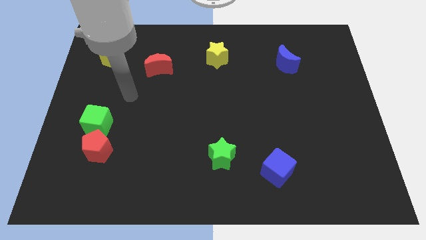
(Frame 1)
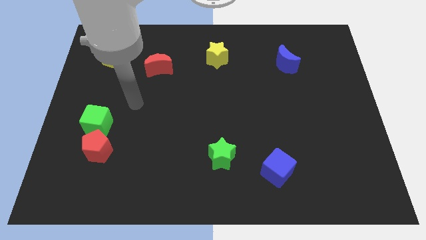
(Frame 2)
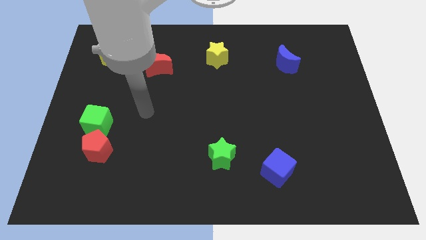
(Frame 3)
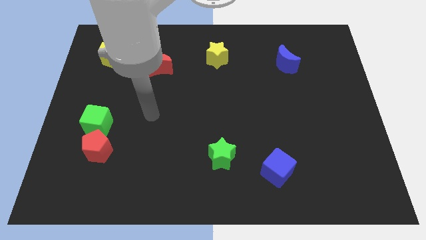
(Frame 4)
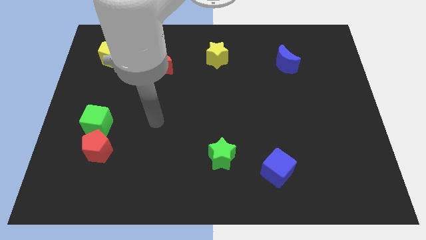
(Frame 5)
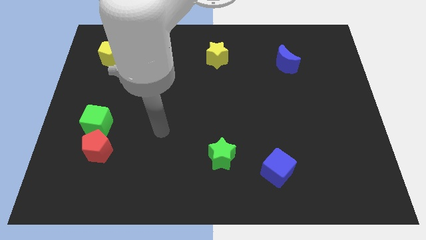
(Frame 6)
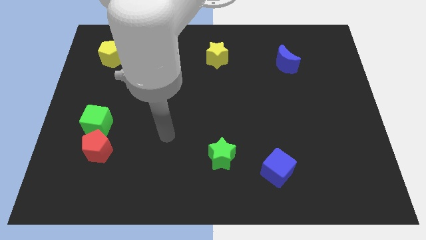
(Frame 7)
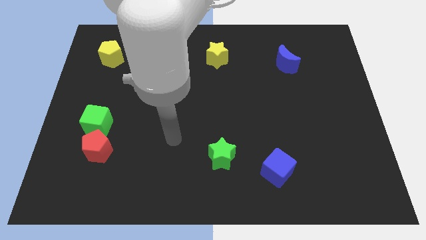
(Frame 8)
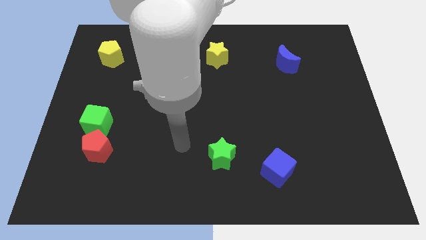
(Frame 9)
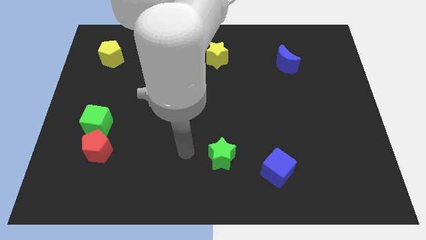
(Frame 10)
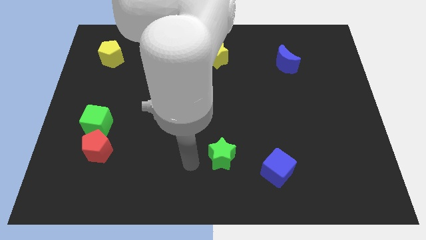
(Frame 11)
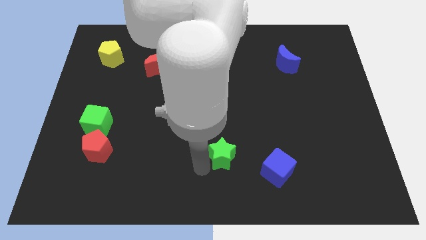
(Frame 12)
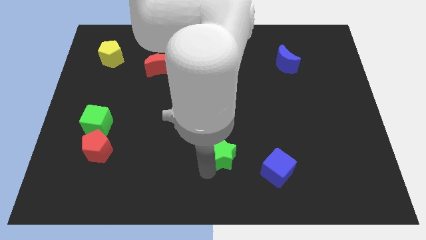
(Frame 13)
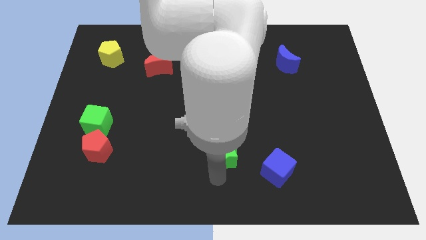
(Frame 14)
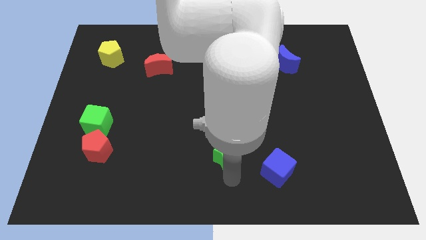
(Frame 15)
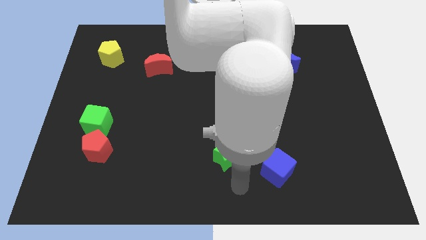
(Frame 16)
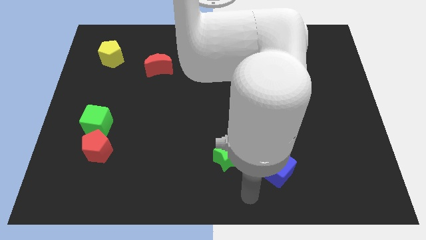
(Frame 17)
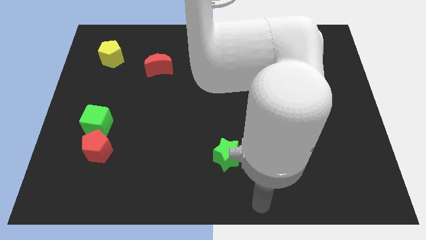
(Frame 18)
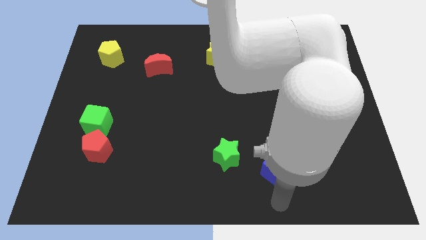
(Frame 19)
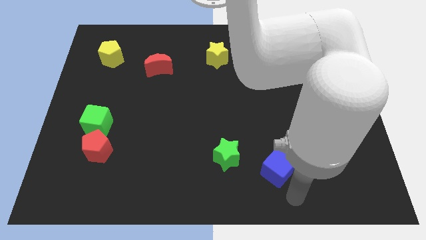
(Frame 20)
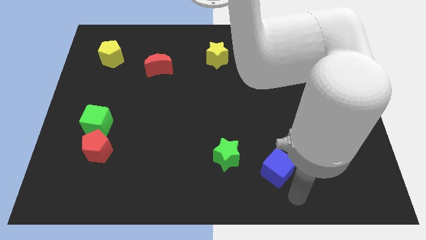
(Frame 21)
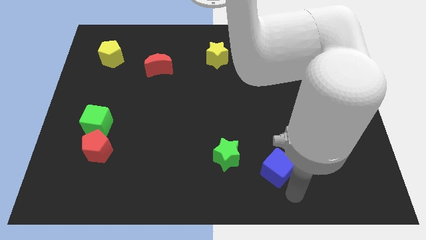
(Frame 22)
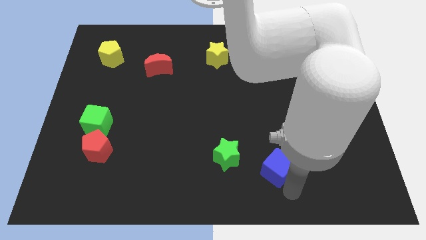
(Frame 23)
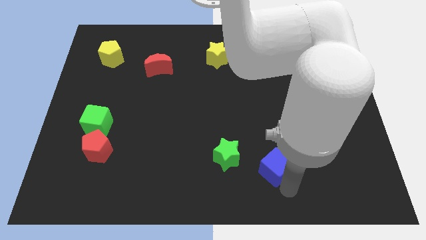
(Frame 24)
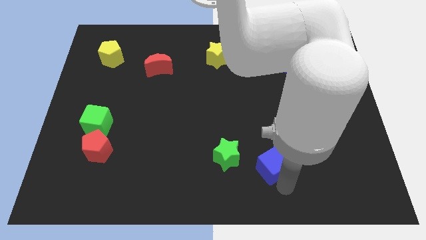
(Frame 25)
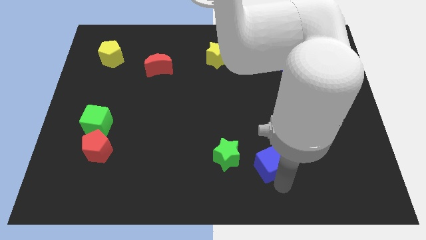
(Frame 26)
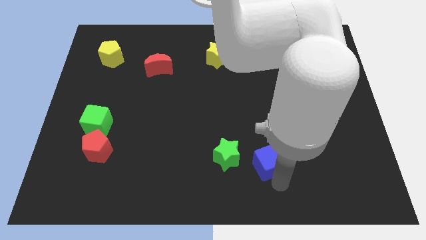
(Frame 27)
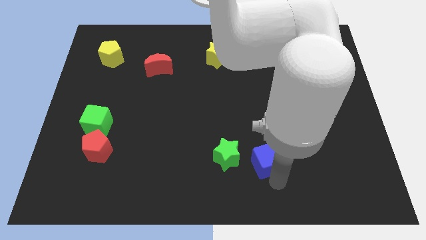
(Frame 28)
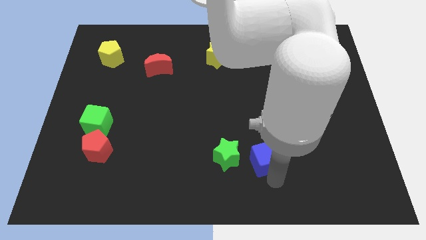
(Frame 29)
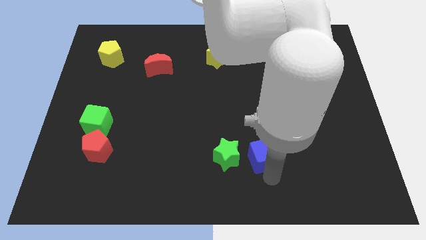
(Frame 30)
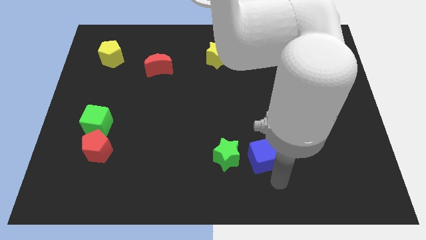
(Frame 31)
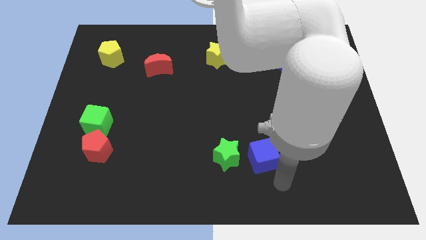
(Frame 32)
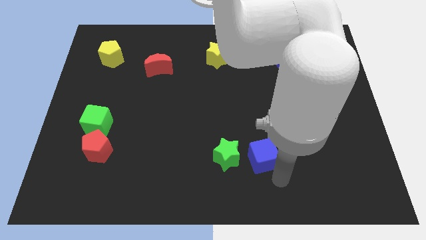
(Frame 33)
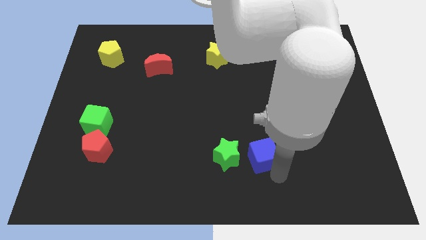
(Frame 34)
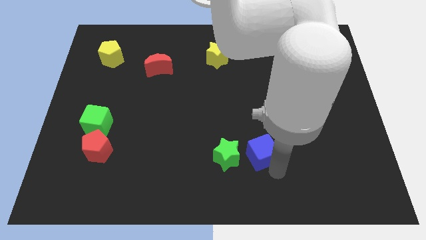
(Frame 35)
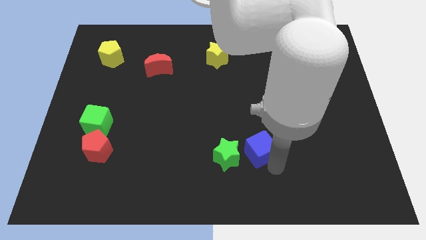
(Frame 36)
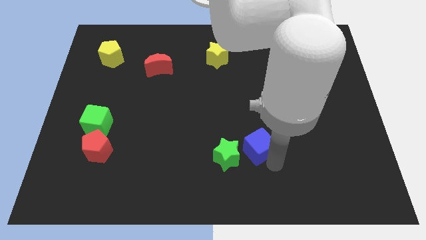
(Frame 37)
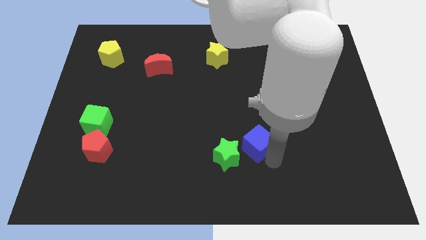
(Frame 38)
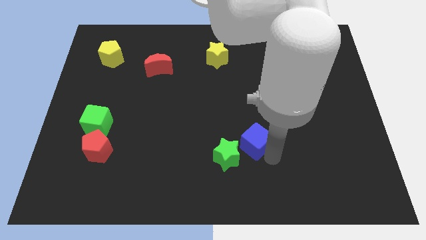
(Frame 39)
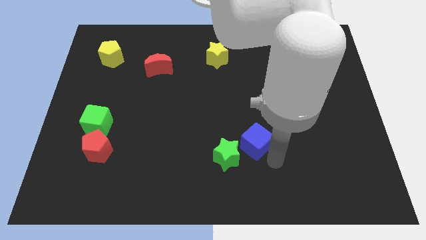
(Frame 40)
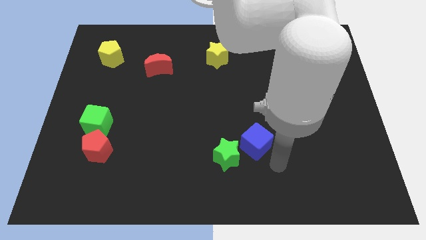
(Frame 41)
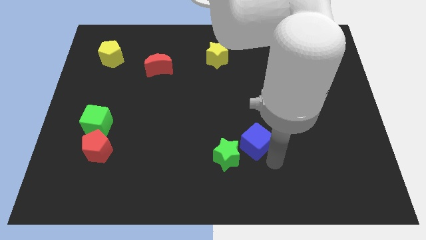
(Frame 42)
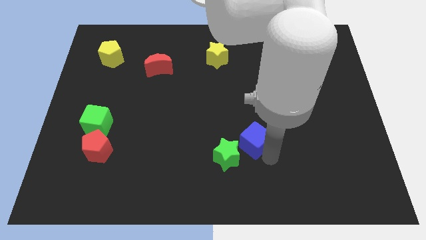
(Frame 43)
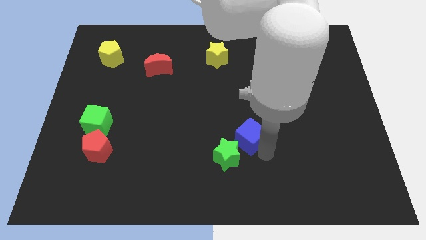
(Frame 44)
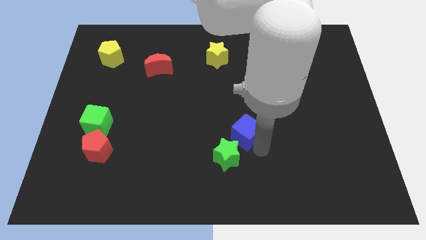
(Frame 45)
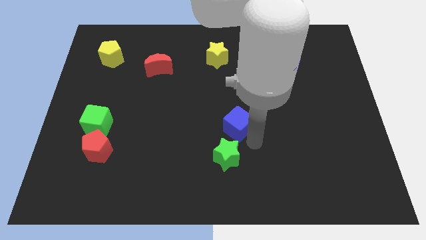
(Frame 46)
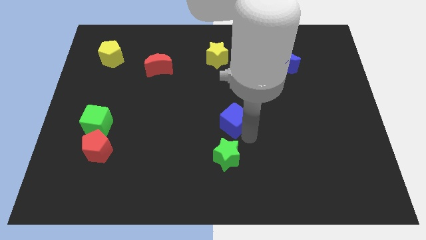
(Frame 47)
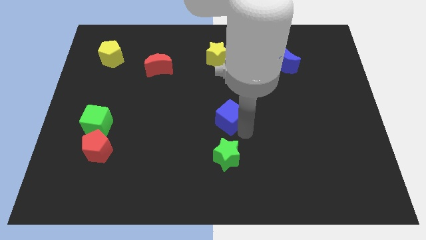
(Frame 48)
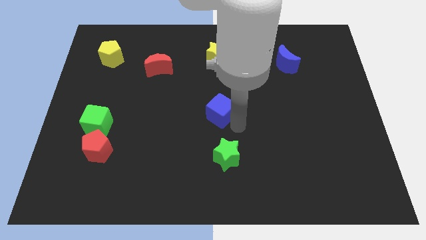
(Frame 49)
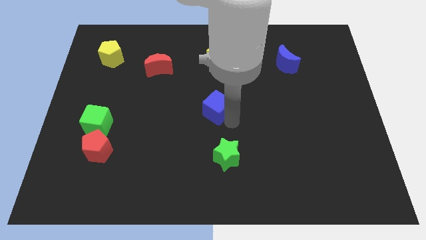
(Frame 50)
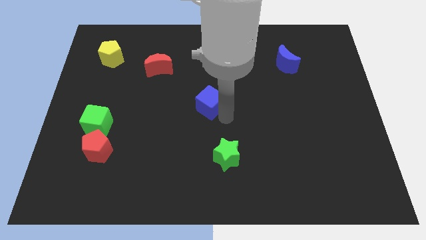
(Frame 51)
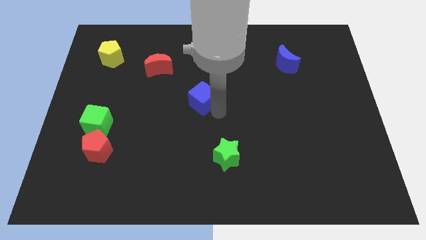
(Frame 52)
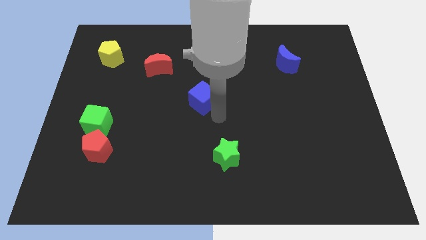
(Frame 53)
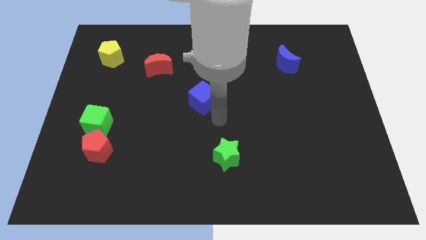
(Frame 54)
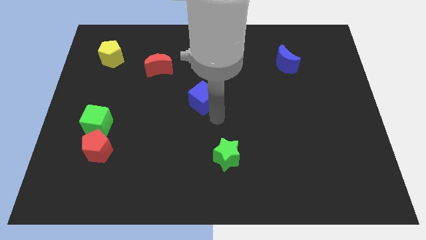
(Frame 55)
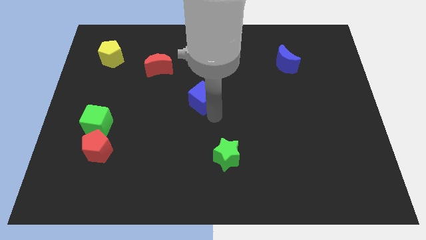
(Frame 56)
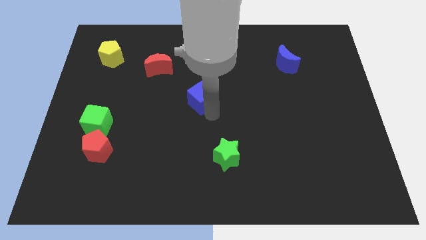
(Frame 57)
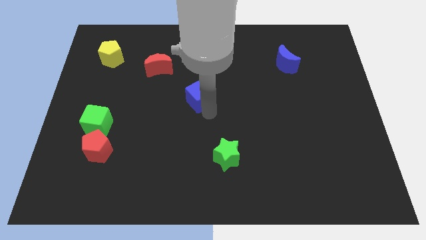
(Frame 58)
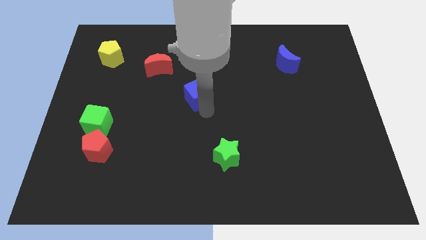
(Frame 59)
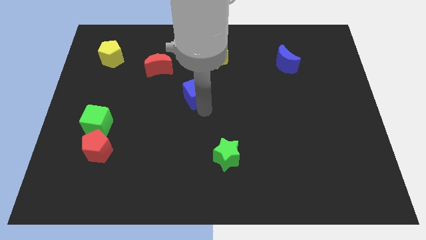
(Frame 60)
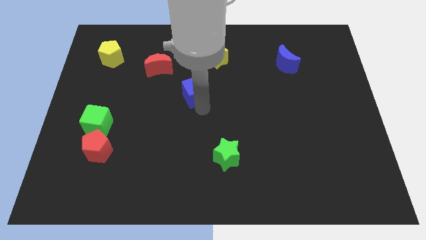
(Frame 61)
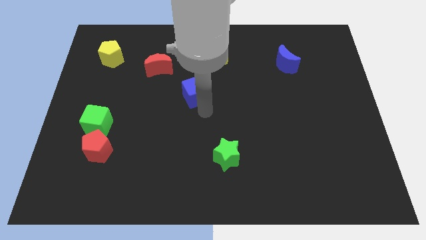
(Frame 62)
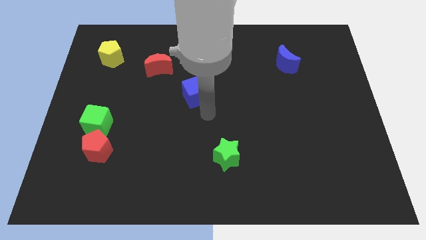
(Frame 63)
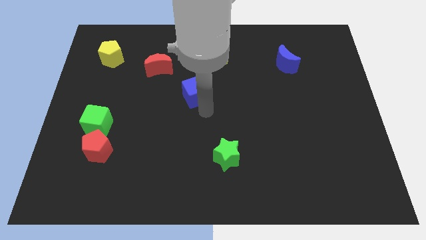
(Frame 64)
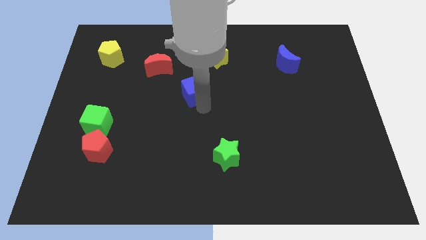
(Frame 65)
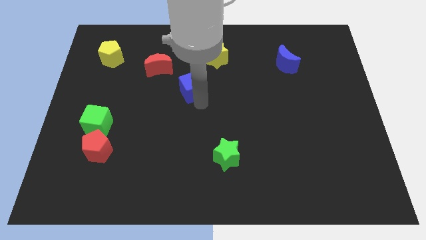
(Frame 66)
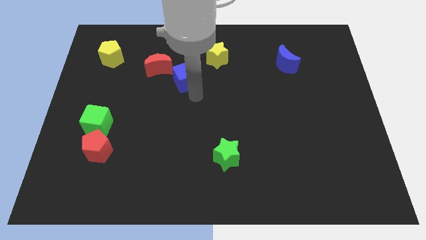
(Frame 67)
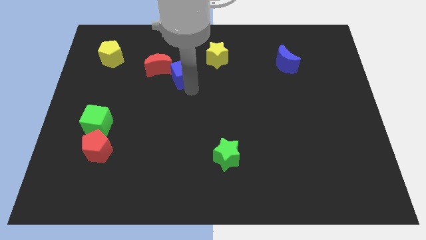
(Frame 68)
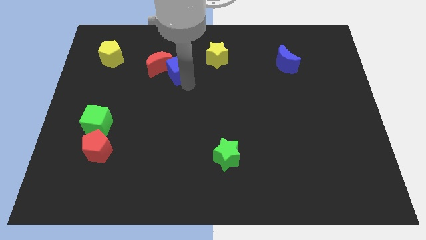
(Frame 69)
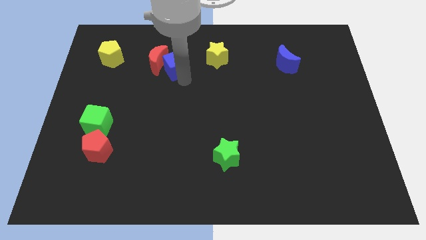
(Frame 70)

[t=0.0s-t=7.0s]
push the blue cube to the left side of the yellow star
